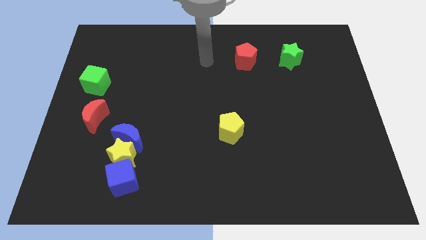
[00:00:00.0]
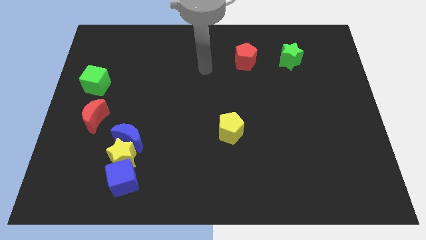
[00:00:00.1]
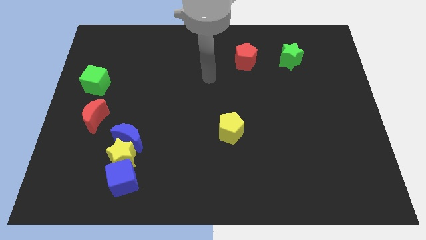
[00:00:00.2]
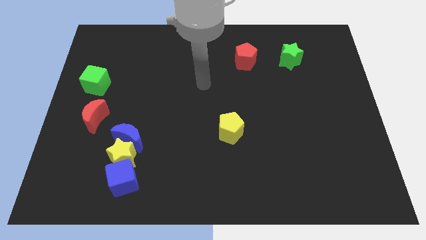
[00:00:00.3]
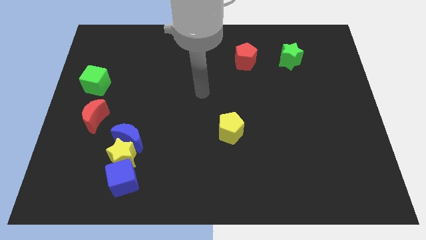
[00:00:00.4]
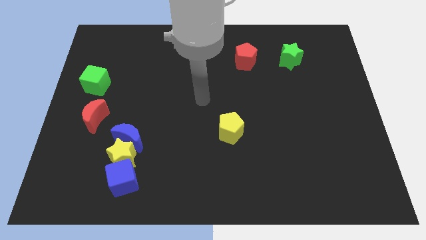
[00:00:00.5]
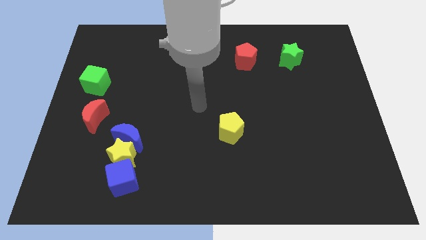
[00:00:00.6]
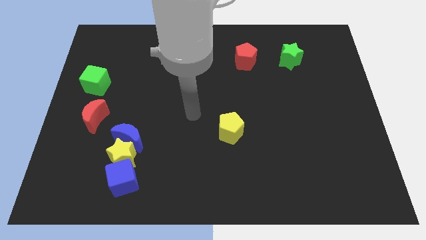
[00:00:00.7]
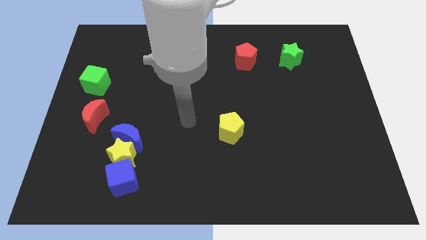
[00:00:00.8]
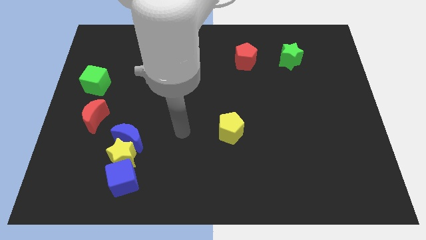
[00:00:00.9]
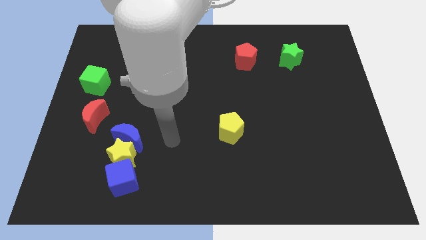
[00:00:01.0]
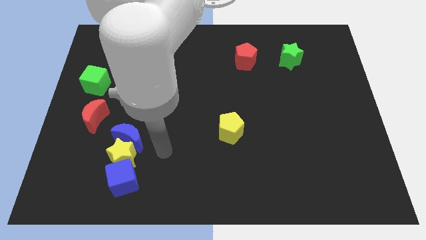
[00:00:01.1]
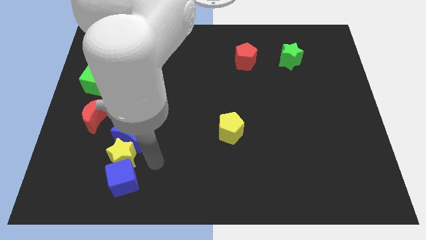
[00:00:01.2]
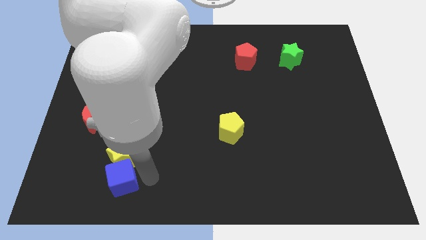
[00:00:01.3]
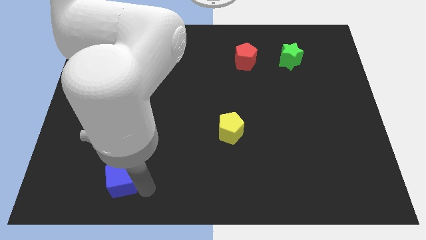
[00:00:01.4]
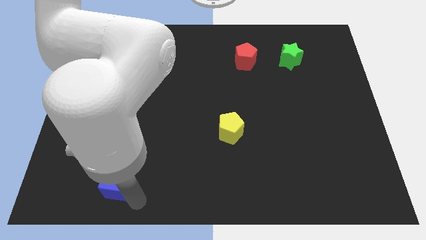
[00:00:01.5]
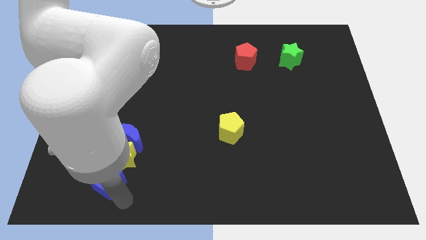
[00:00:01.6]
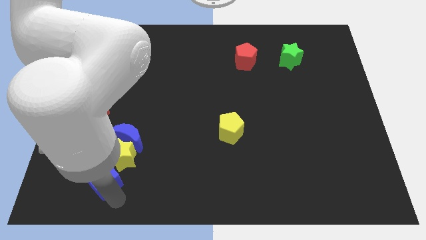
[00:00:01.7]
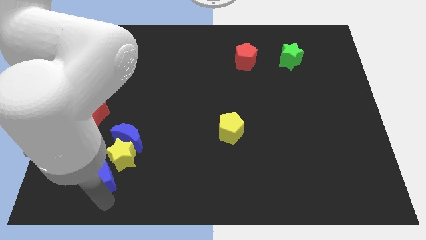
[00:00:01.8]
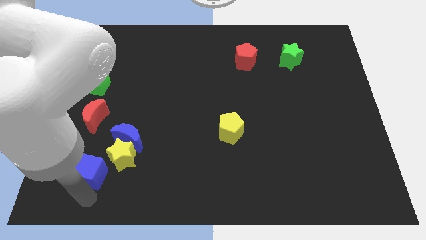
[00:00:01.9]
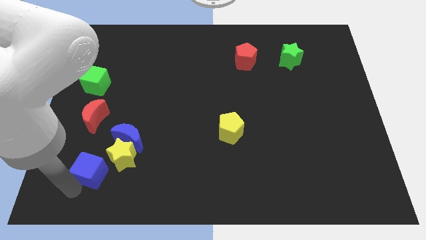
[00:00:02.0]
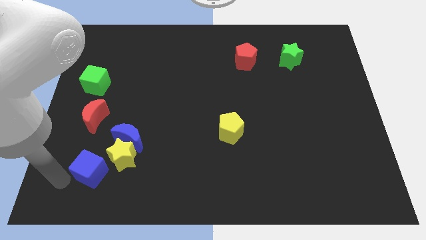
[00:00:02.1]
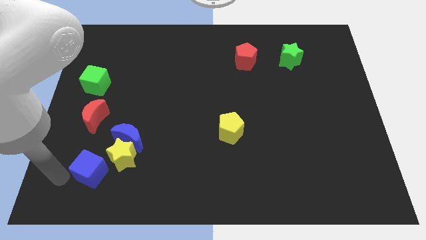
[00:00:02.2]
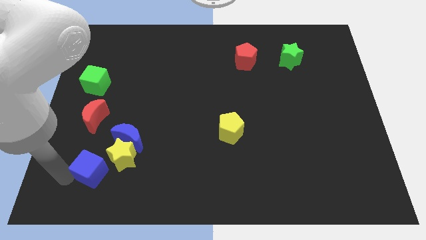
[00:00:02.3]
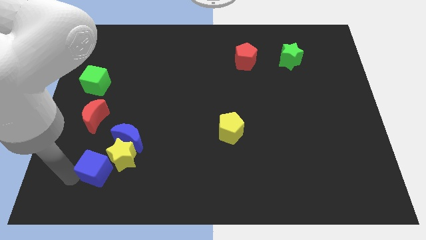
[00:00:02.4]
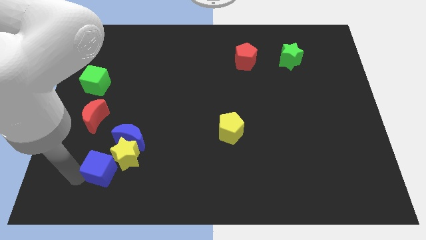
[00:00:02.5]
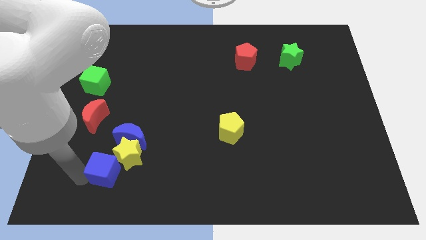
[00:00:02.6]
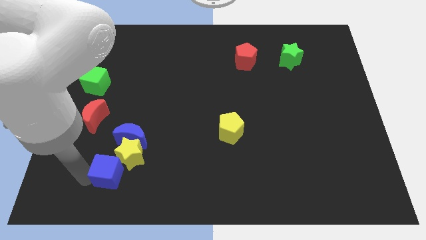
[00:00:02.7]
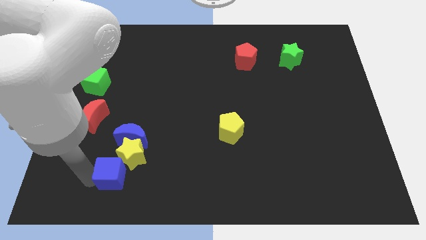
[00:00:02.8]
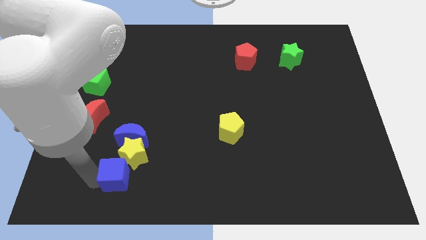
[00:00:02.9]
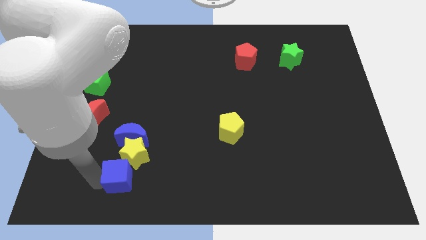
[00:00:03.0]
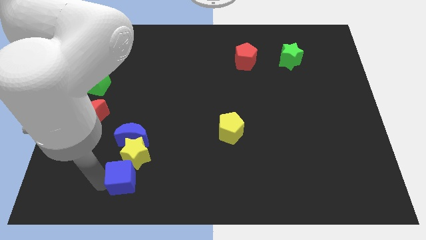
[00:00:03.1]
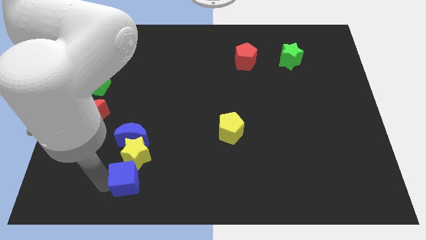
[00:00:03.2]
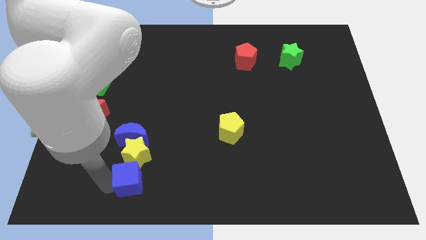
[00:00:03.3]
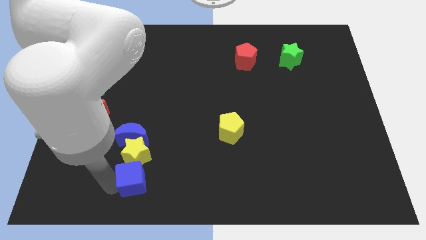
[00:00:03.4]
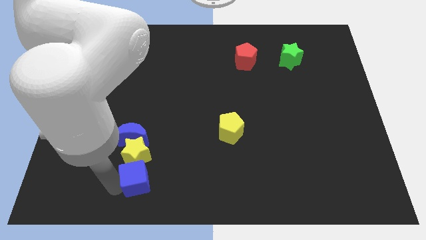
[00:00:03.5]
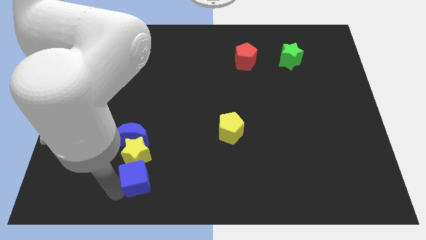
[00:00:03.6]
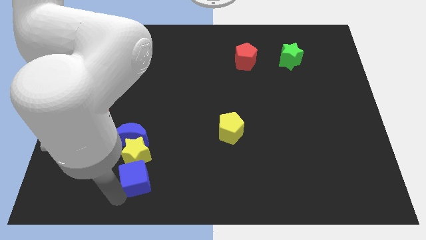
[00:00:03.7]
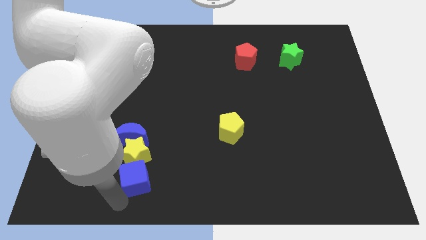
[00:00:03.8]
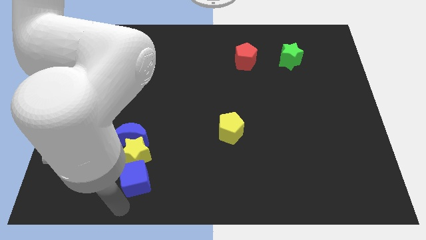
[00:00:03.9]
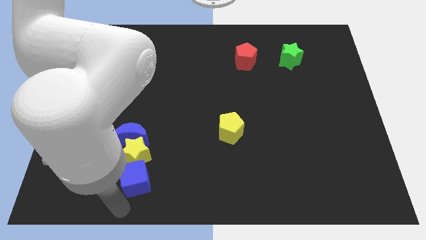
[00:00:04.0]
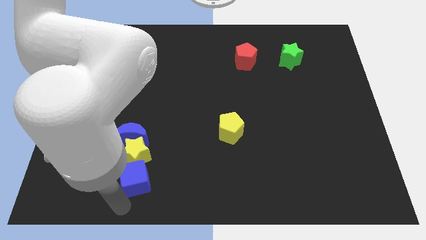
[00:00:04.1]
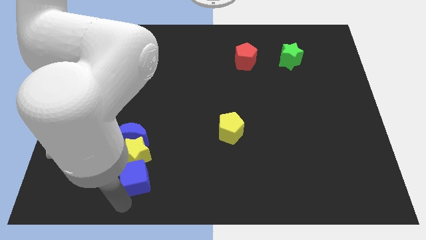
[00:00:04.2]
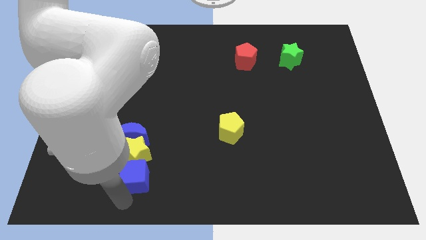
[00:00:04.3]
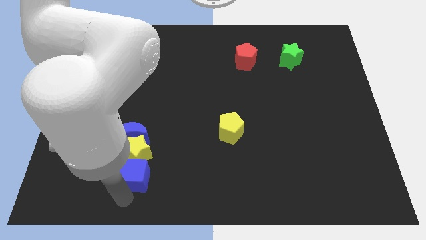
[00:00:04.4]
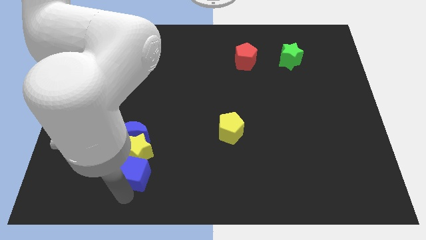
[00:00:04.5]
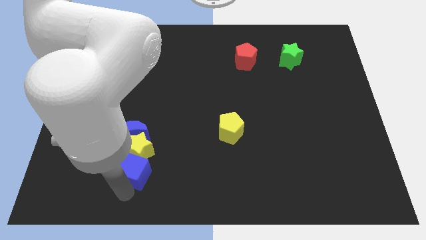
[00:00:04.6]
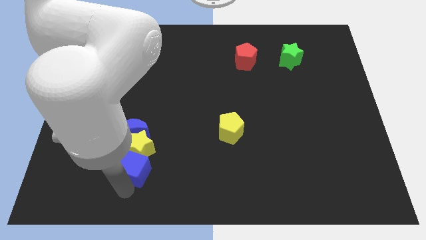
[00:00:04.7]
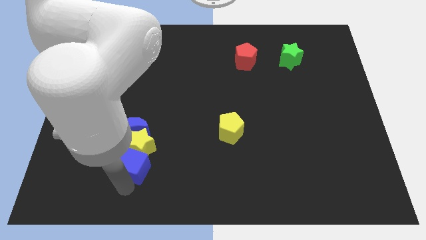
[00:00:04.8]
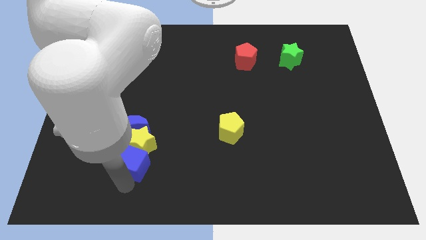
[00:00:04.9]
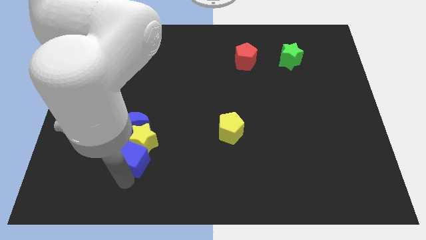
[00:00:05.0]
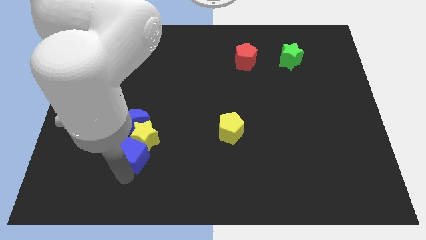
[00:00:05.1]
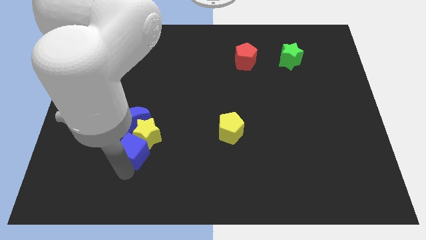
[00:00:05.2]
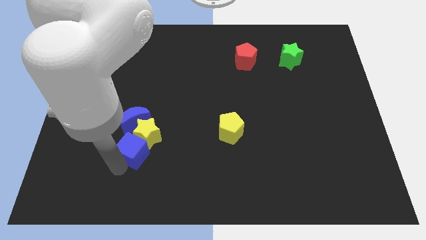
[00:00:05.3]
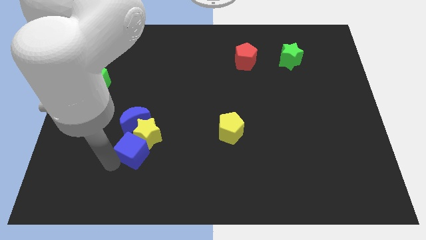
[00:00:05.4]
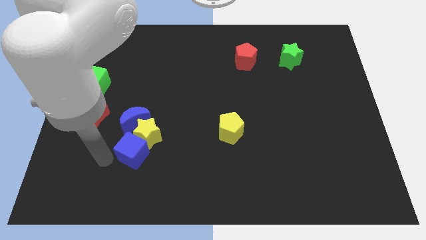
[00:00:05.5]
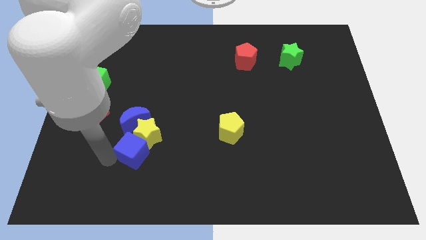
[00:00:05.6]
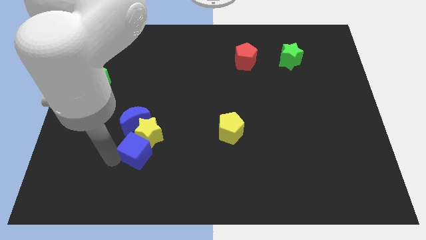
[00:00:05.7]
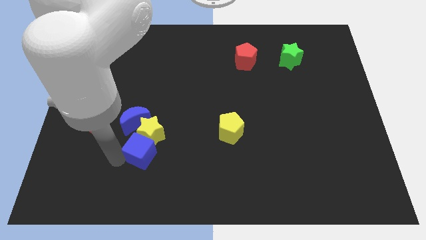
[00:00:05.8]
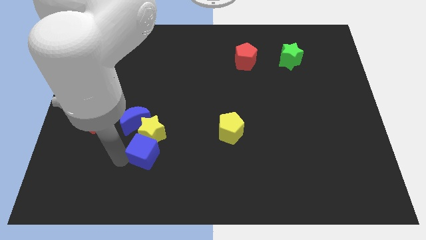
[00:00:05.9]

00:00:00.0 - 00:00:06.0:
push the blue cube up and right diagonally somewhat

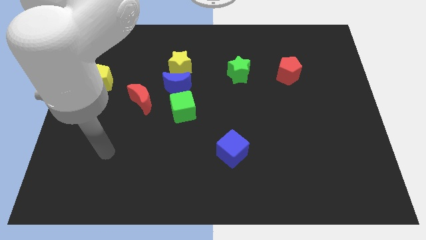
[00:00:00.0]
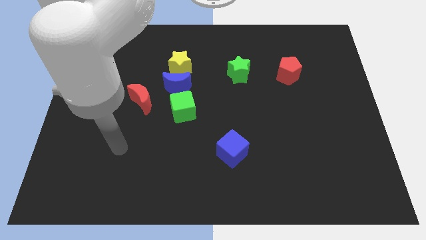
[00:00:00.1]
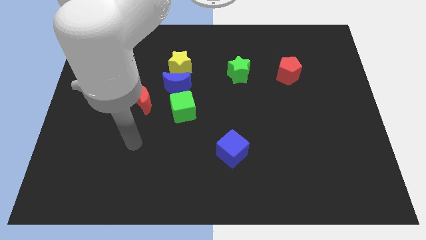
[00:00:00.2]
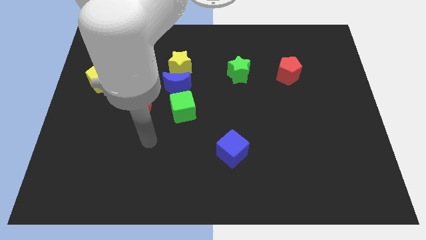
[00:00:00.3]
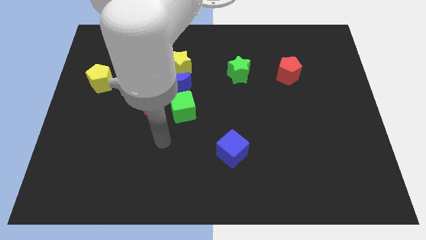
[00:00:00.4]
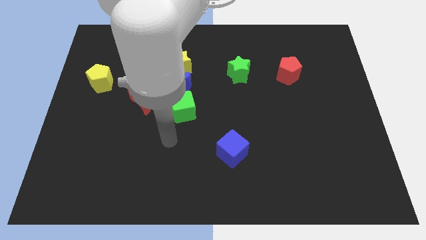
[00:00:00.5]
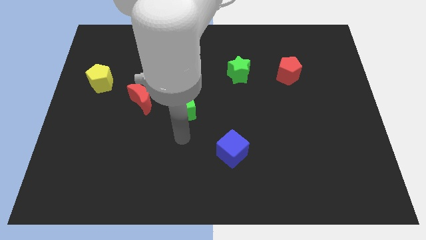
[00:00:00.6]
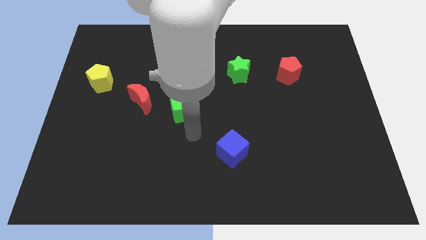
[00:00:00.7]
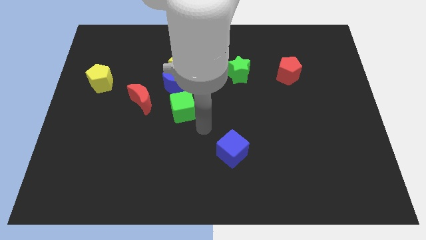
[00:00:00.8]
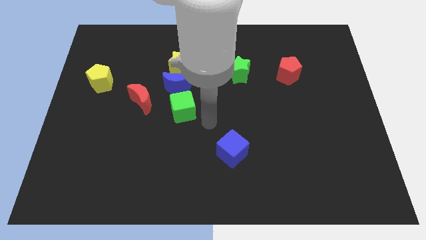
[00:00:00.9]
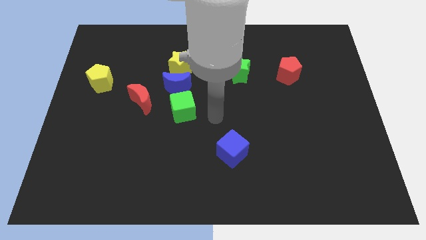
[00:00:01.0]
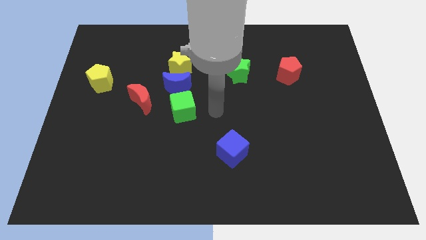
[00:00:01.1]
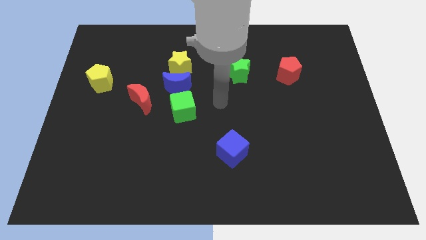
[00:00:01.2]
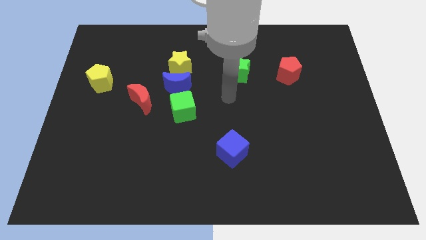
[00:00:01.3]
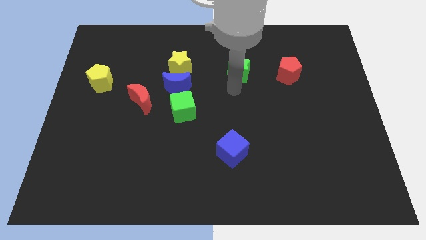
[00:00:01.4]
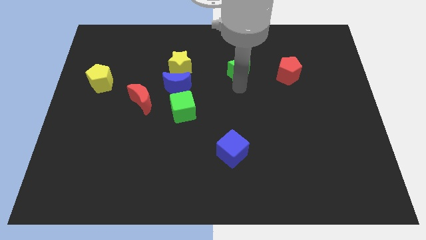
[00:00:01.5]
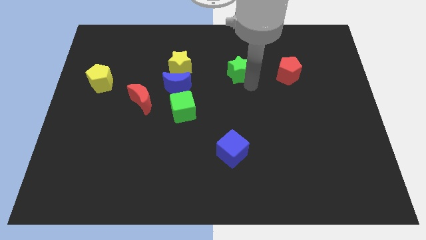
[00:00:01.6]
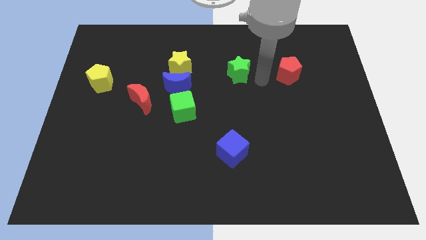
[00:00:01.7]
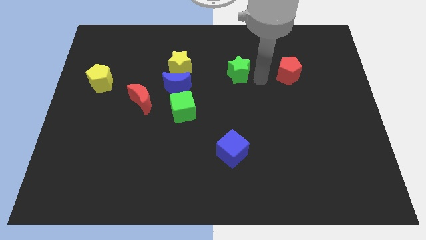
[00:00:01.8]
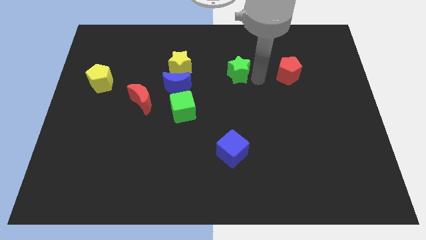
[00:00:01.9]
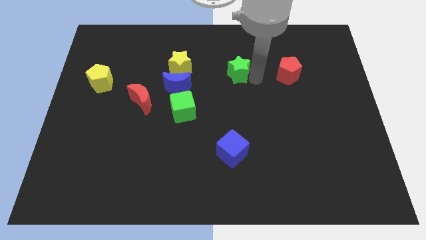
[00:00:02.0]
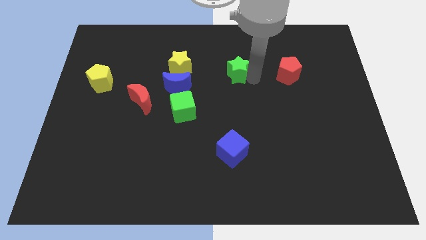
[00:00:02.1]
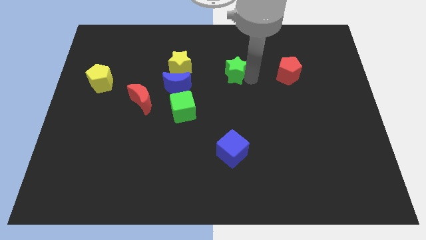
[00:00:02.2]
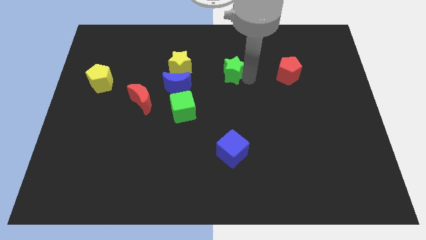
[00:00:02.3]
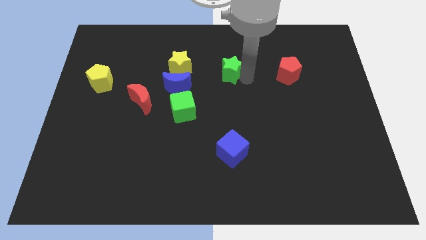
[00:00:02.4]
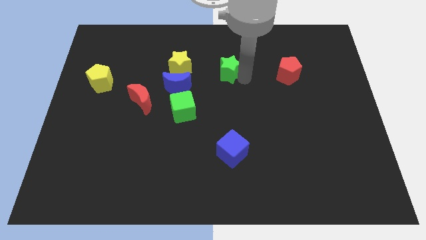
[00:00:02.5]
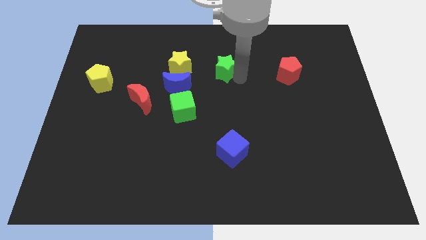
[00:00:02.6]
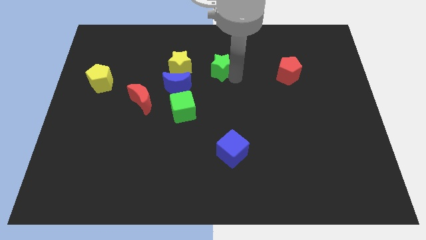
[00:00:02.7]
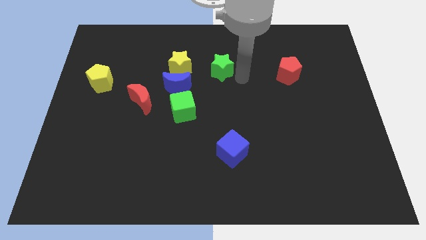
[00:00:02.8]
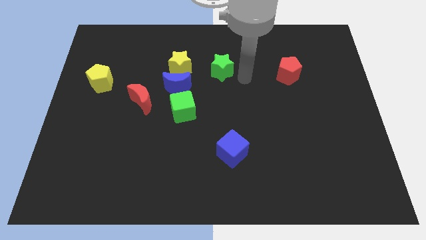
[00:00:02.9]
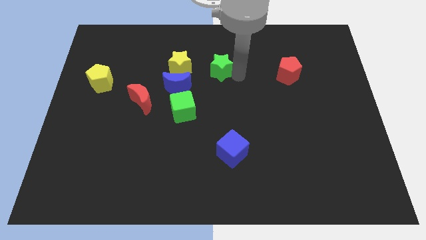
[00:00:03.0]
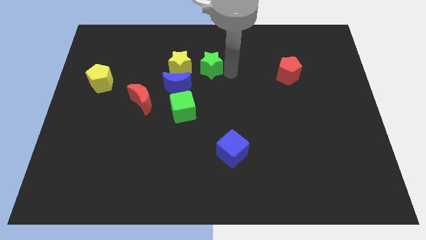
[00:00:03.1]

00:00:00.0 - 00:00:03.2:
slide the green star to the left a little bit
